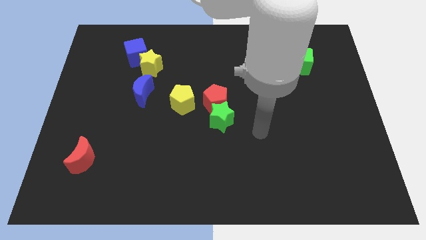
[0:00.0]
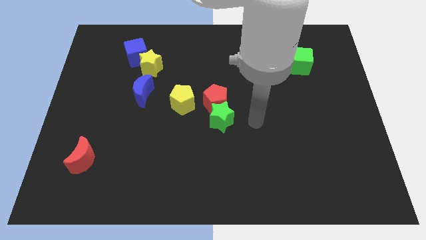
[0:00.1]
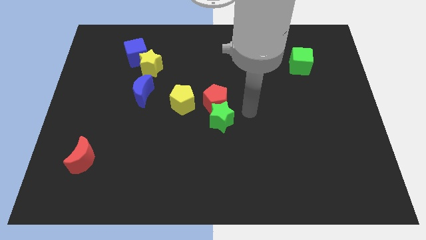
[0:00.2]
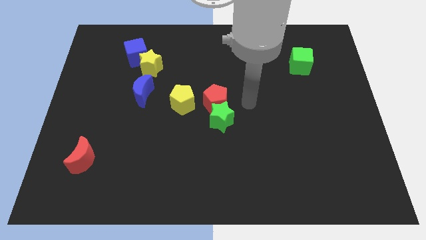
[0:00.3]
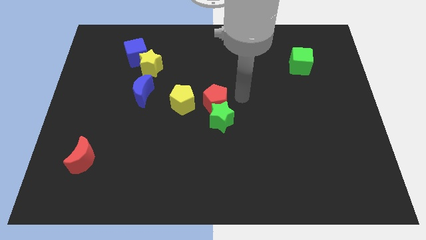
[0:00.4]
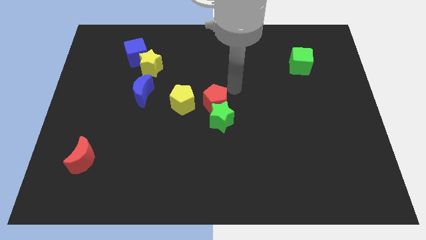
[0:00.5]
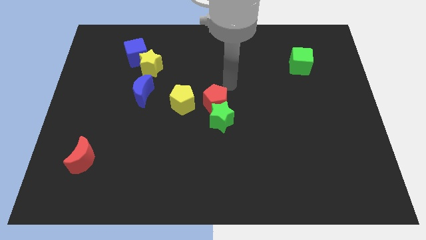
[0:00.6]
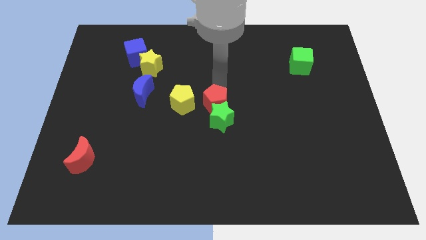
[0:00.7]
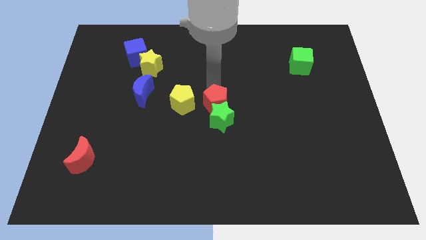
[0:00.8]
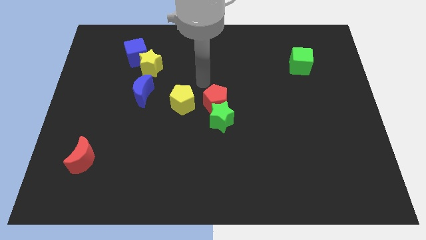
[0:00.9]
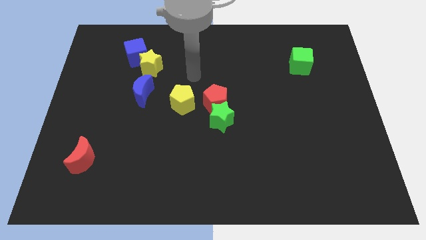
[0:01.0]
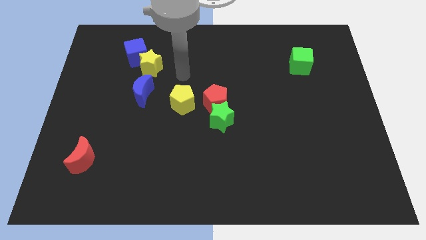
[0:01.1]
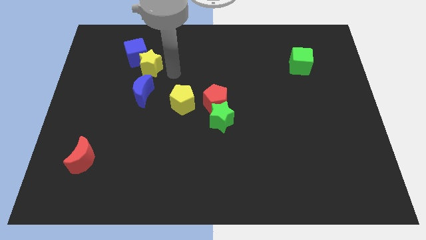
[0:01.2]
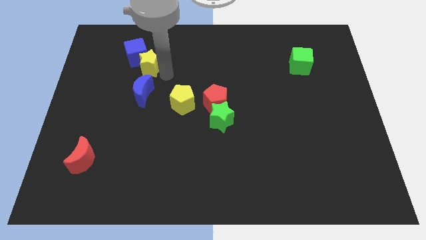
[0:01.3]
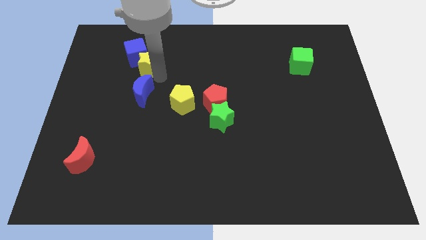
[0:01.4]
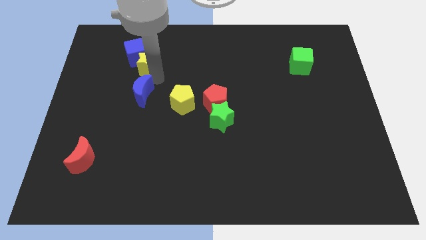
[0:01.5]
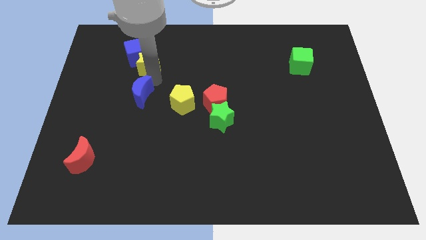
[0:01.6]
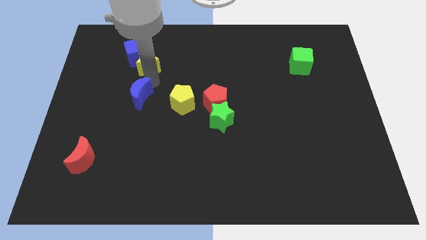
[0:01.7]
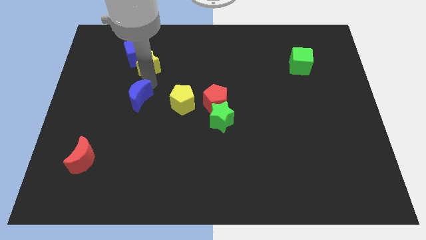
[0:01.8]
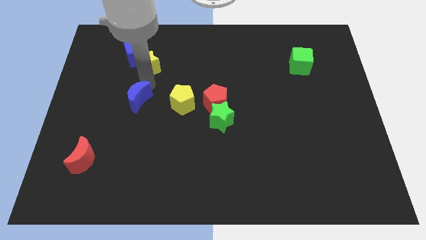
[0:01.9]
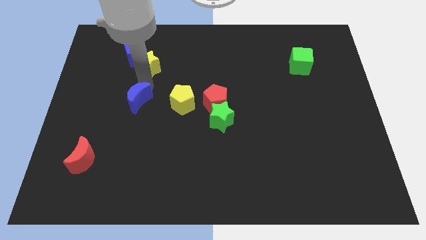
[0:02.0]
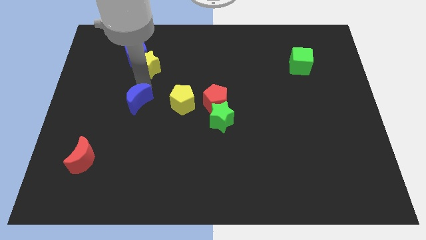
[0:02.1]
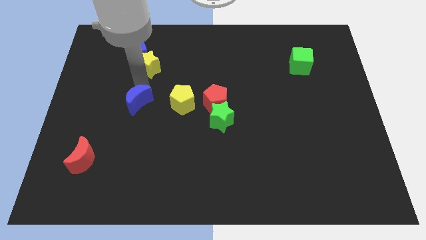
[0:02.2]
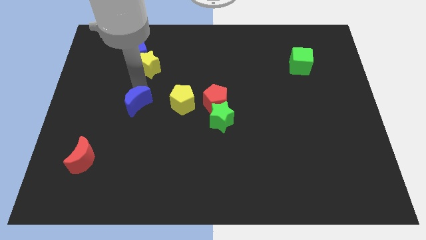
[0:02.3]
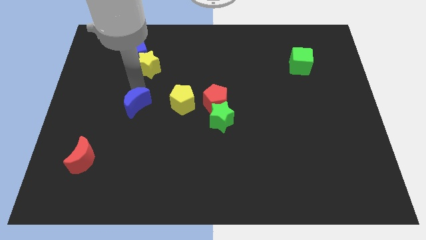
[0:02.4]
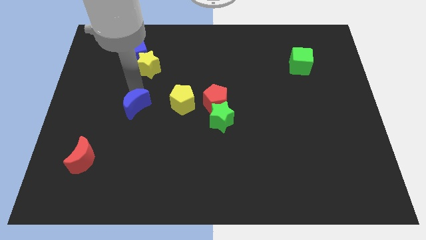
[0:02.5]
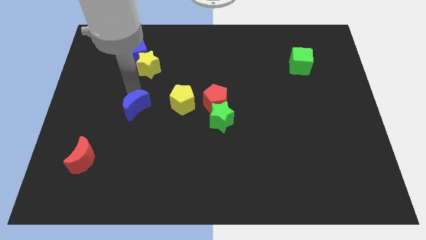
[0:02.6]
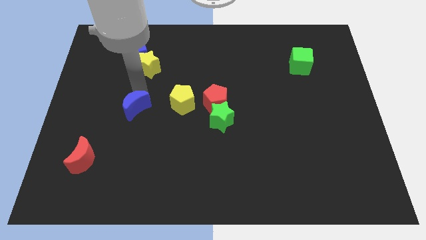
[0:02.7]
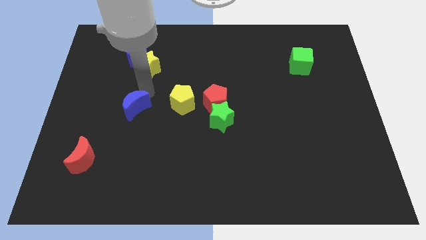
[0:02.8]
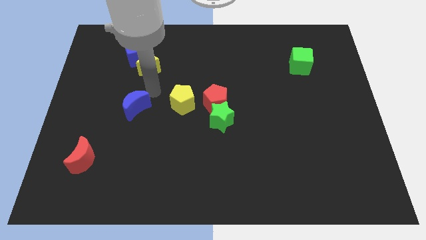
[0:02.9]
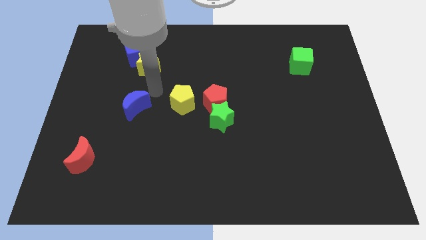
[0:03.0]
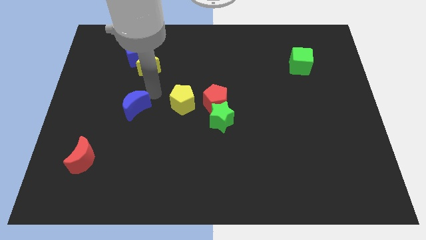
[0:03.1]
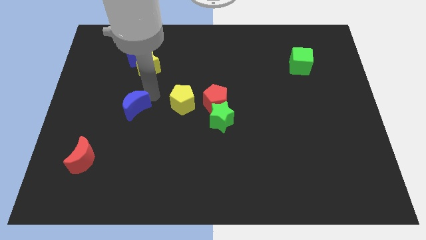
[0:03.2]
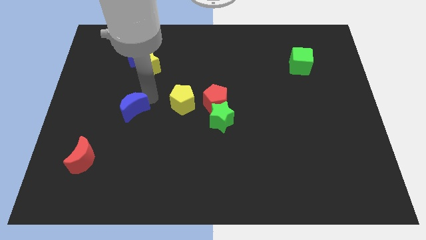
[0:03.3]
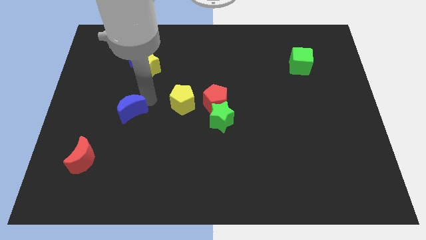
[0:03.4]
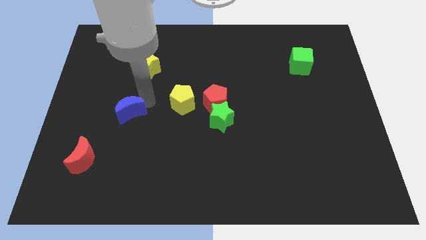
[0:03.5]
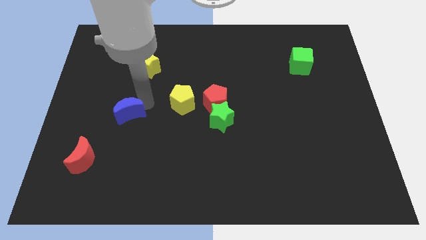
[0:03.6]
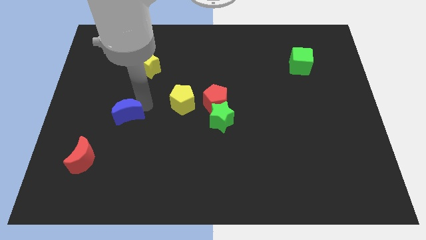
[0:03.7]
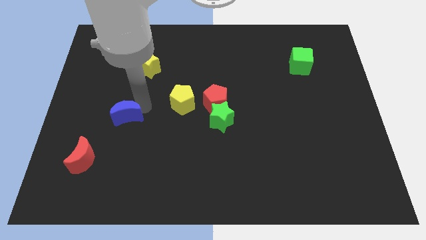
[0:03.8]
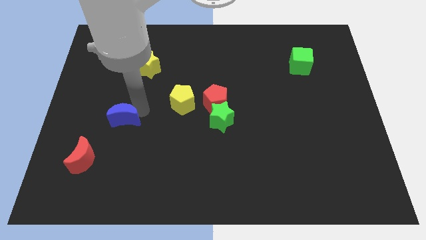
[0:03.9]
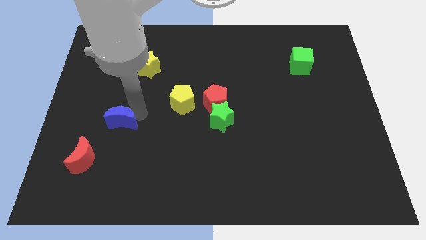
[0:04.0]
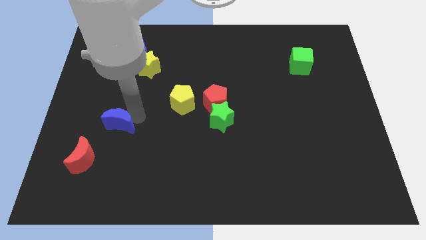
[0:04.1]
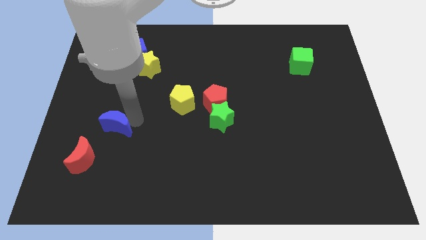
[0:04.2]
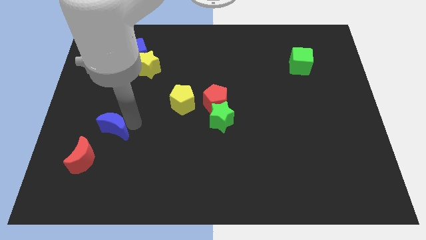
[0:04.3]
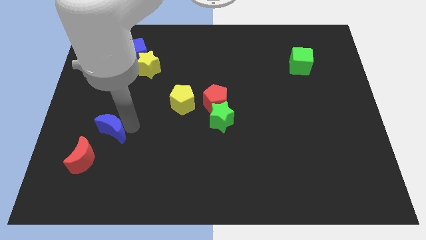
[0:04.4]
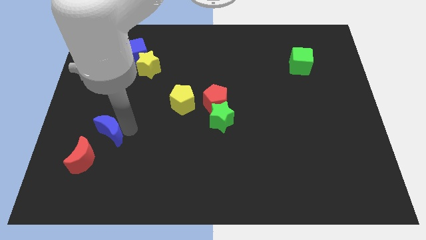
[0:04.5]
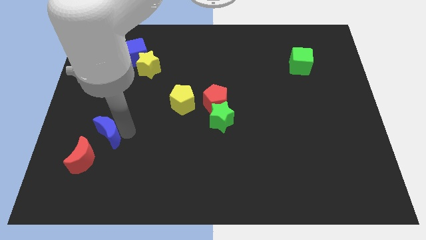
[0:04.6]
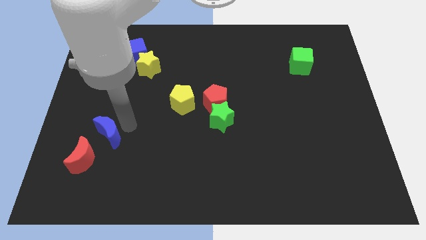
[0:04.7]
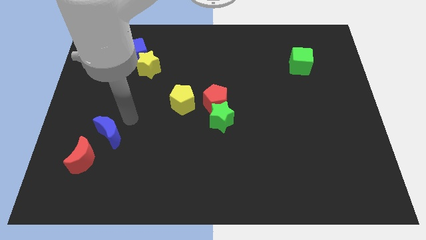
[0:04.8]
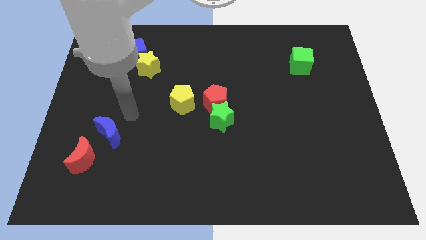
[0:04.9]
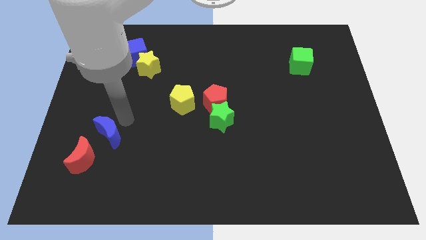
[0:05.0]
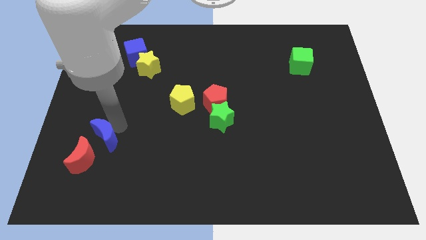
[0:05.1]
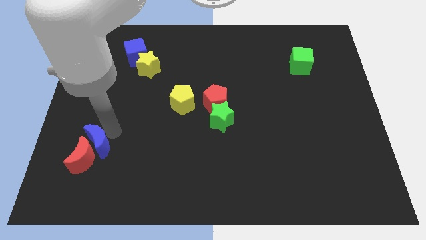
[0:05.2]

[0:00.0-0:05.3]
put the blue moon to the red moon

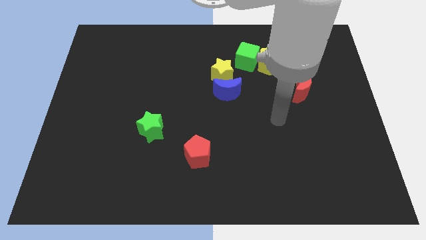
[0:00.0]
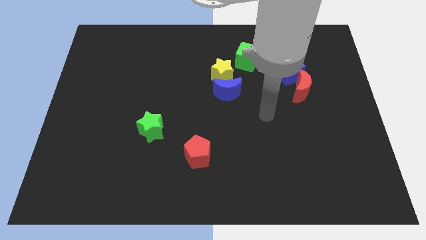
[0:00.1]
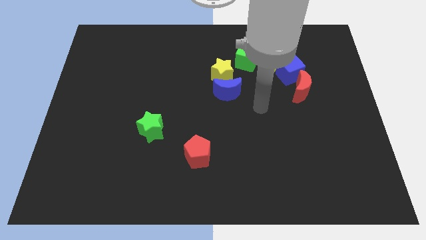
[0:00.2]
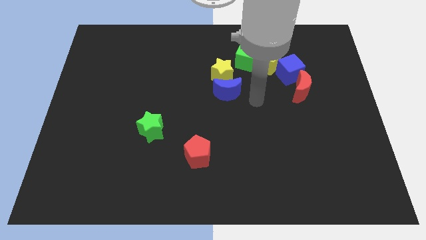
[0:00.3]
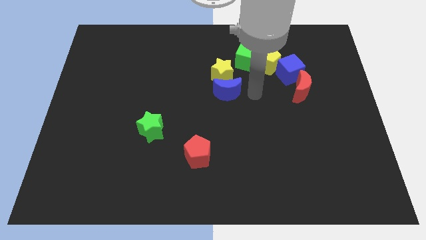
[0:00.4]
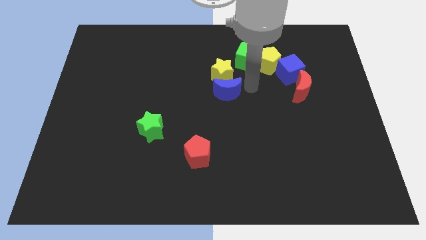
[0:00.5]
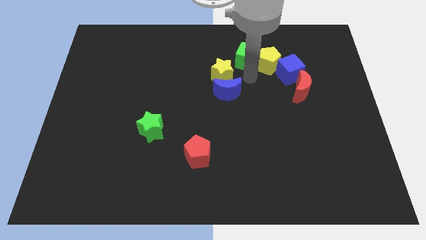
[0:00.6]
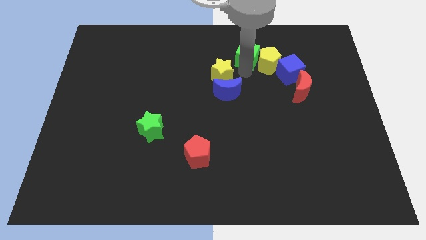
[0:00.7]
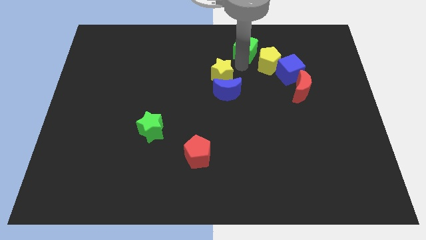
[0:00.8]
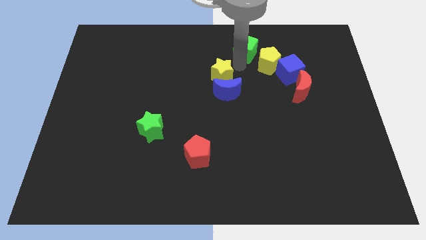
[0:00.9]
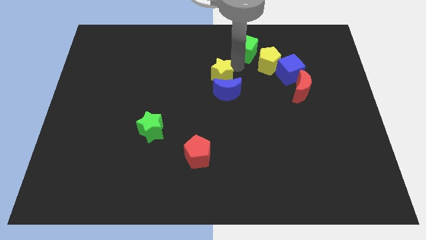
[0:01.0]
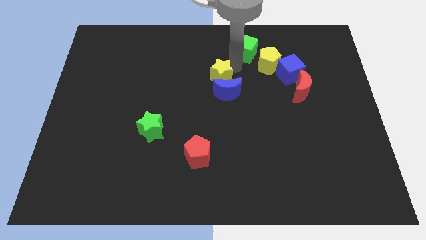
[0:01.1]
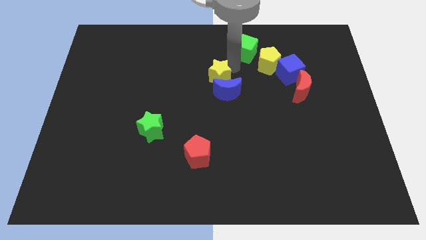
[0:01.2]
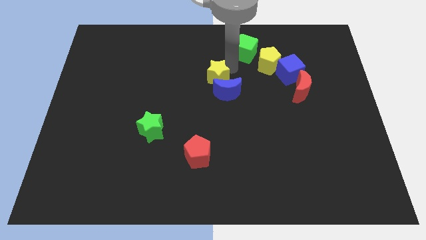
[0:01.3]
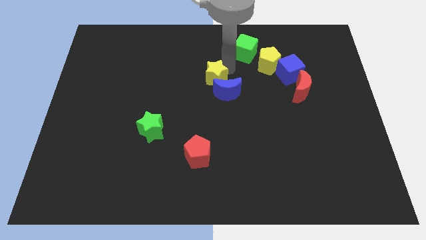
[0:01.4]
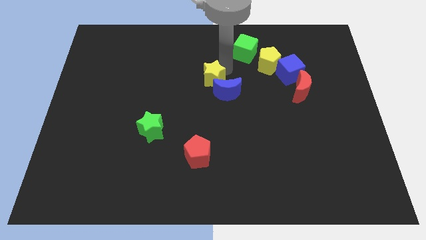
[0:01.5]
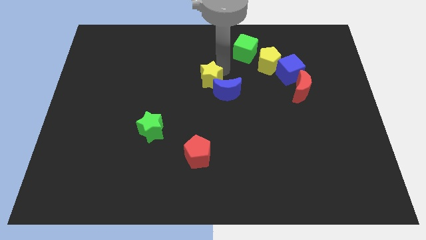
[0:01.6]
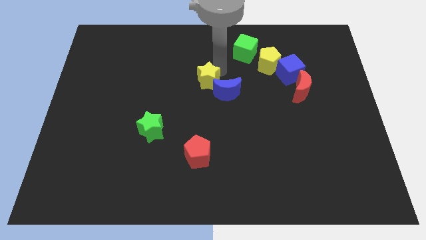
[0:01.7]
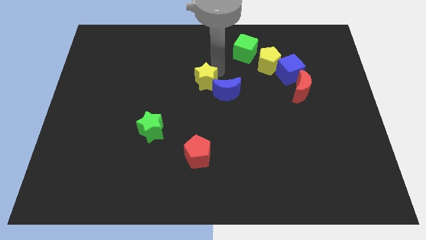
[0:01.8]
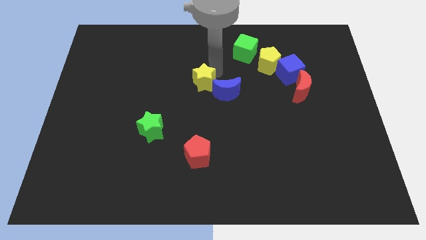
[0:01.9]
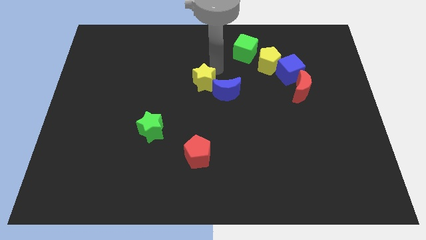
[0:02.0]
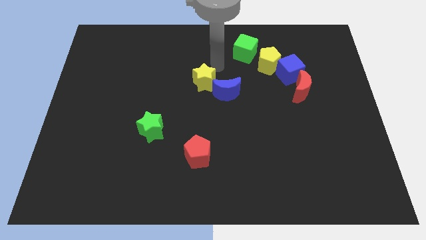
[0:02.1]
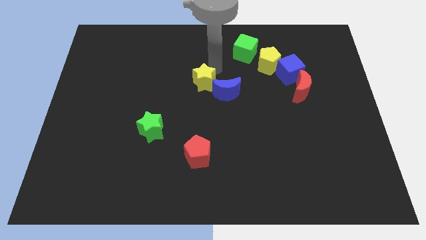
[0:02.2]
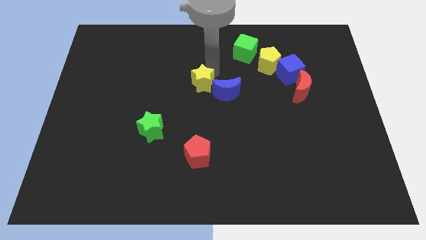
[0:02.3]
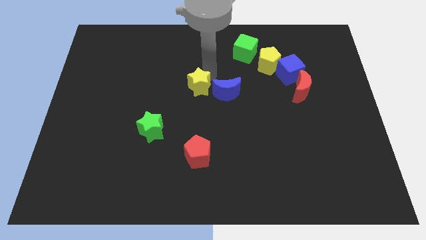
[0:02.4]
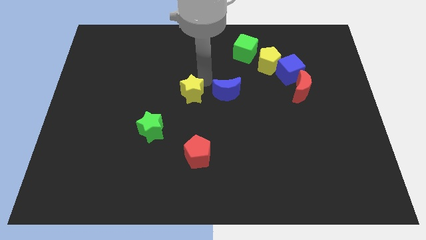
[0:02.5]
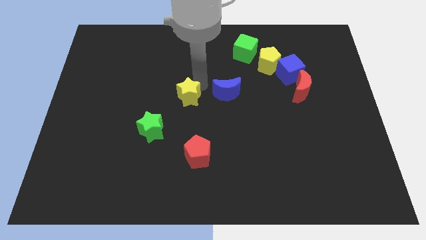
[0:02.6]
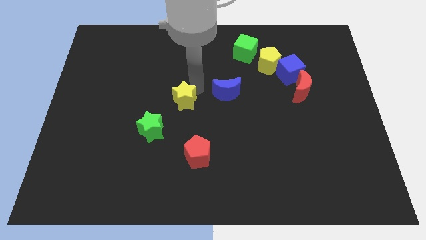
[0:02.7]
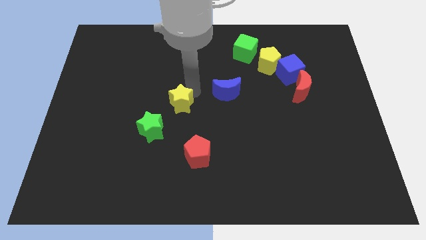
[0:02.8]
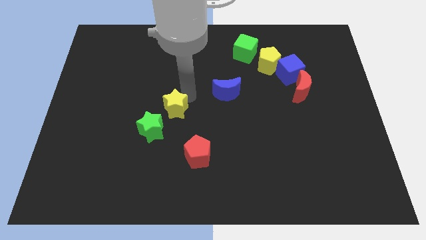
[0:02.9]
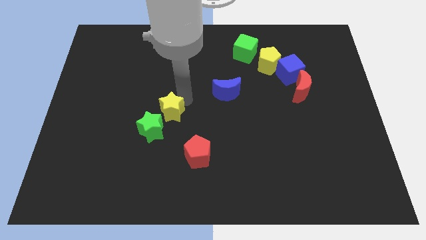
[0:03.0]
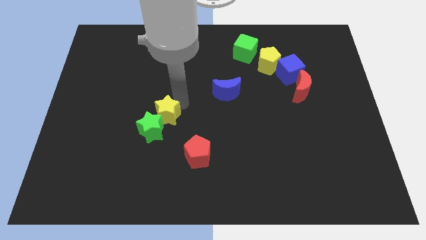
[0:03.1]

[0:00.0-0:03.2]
put the yellow star close to the green star
